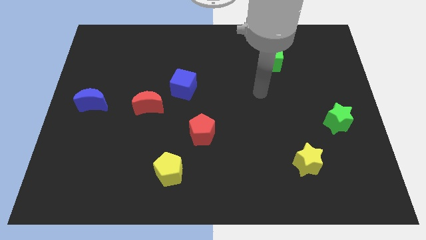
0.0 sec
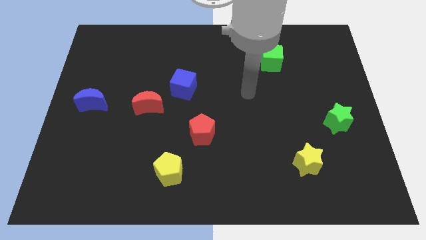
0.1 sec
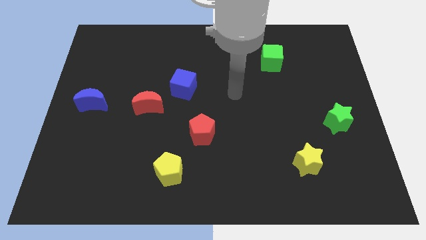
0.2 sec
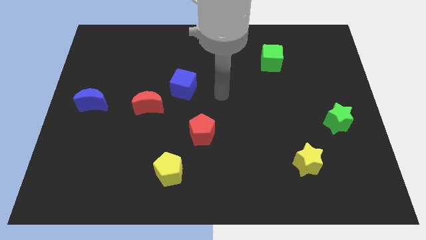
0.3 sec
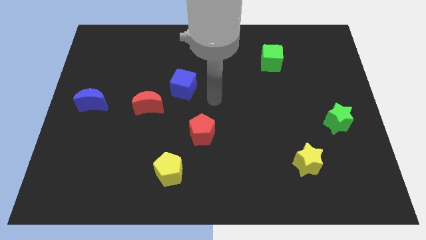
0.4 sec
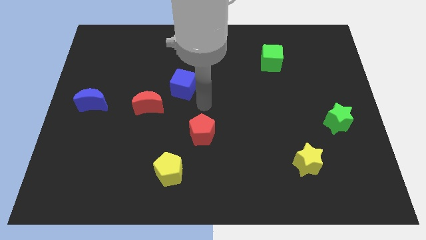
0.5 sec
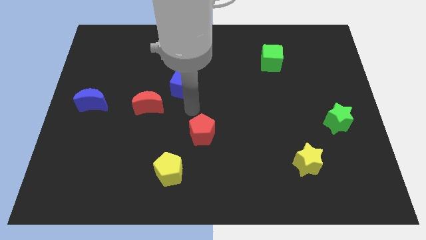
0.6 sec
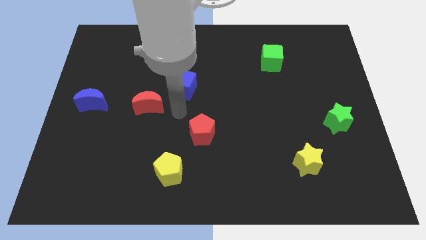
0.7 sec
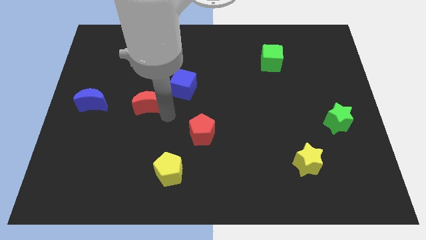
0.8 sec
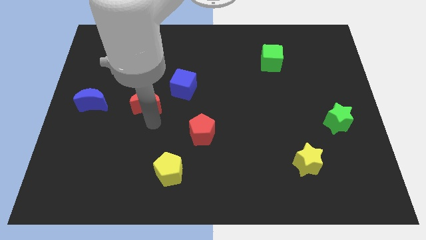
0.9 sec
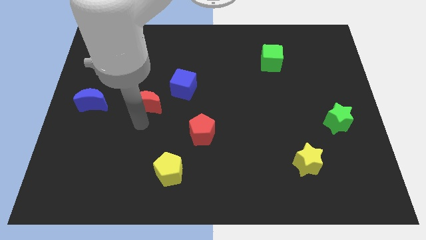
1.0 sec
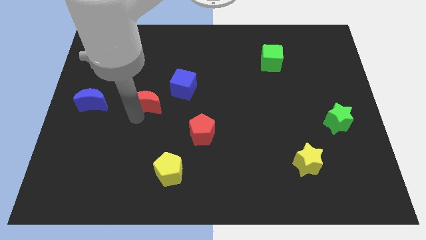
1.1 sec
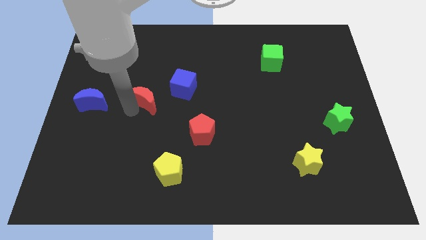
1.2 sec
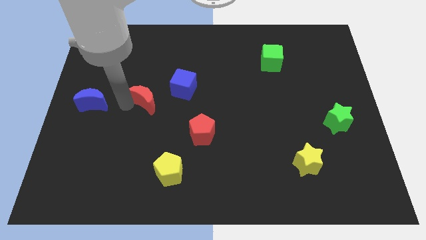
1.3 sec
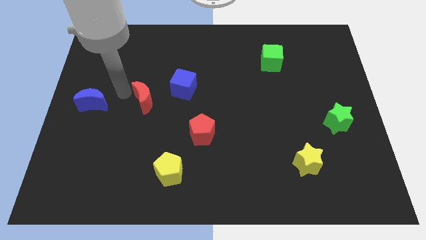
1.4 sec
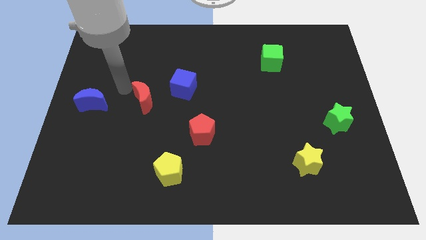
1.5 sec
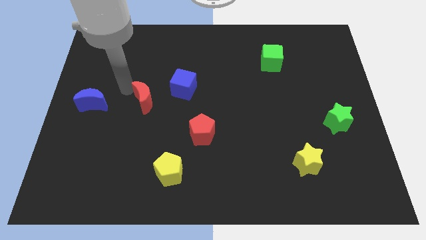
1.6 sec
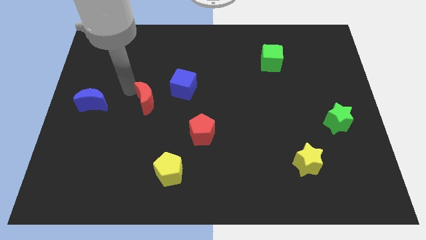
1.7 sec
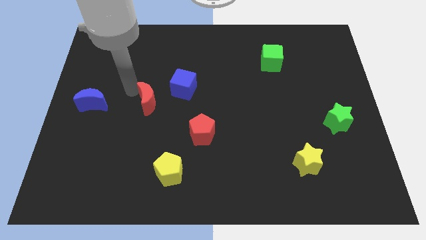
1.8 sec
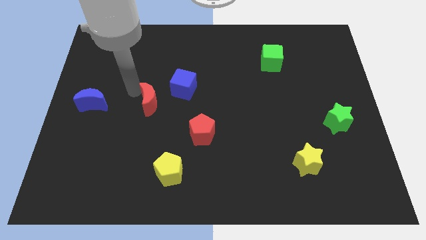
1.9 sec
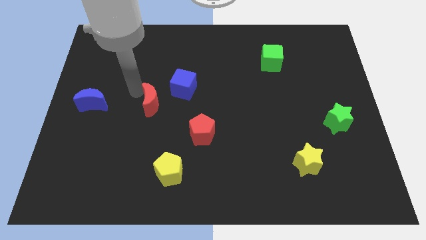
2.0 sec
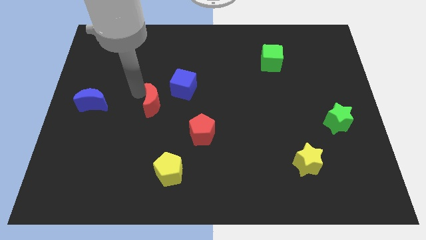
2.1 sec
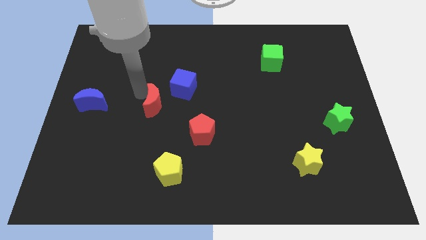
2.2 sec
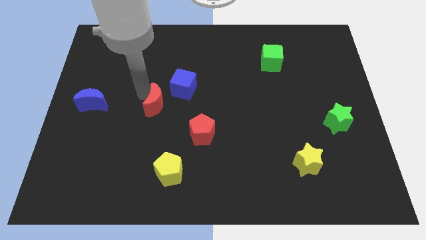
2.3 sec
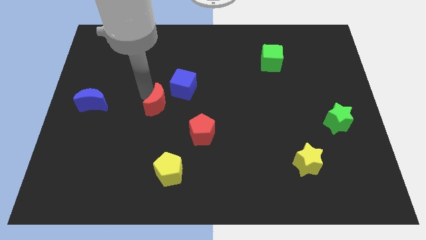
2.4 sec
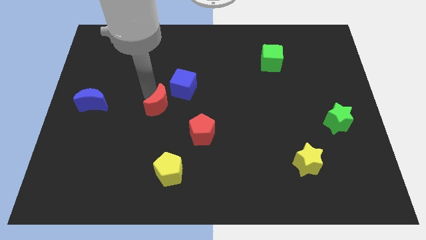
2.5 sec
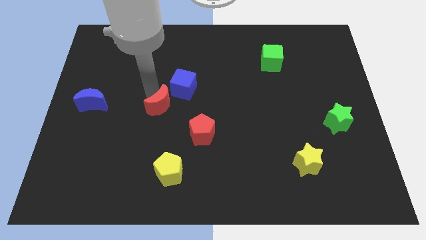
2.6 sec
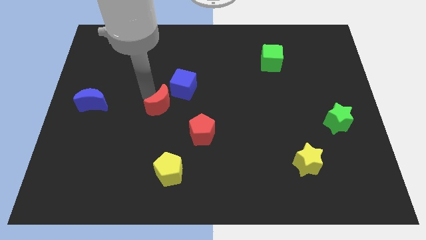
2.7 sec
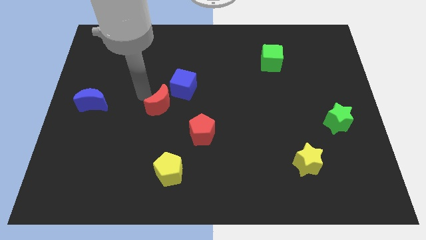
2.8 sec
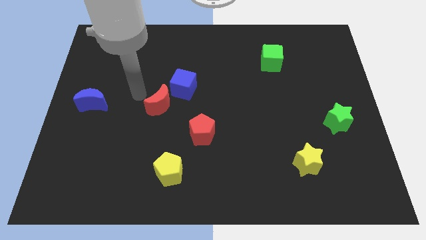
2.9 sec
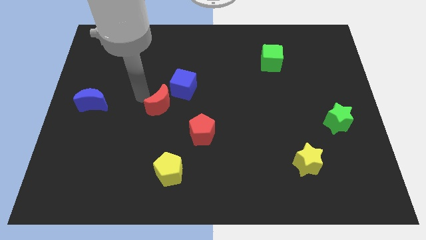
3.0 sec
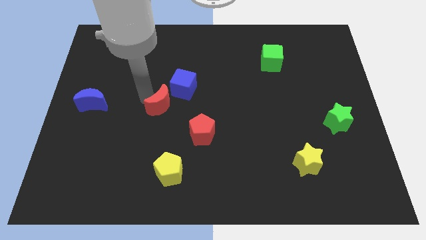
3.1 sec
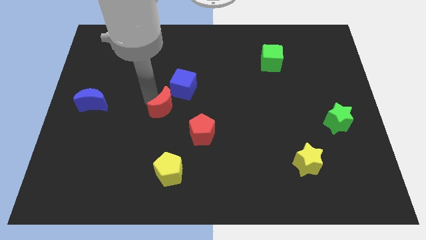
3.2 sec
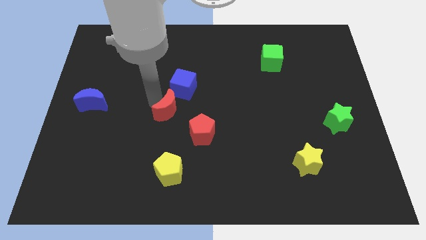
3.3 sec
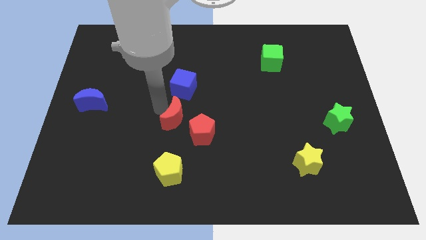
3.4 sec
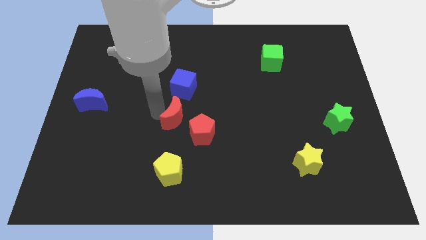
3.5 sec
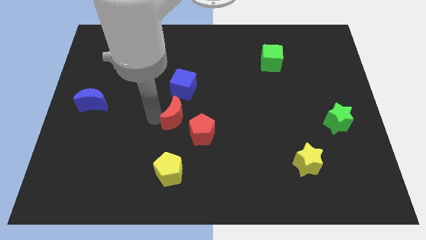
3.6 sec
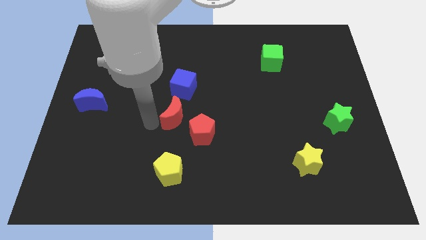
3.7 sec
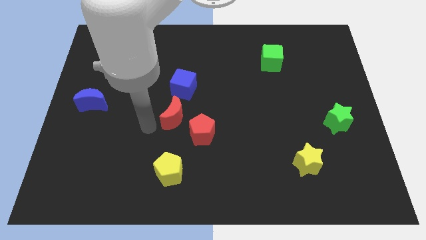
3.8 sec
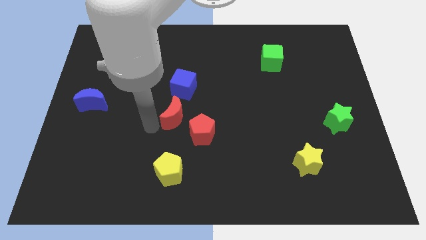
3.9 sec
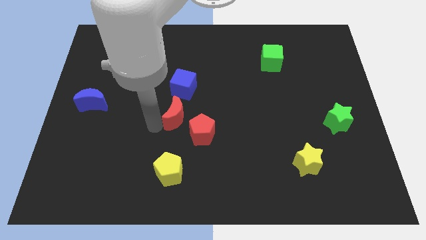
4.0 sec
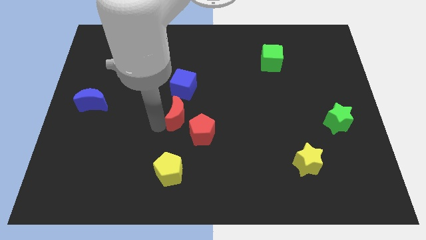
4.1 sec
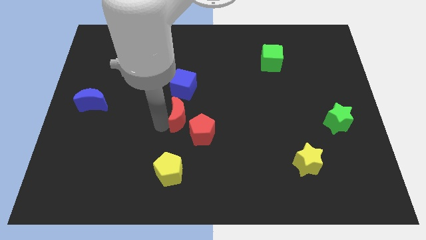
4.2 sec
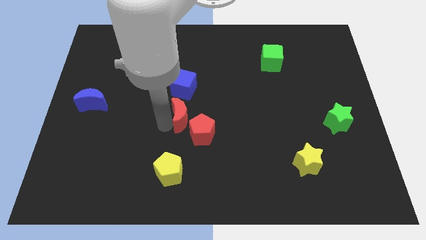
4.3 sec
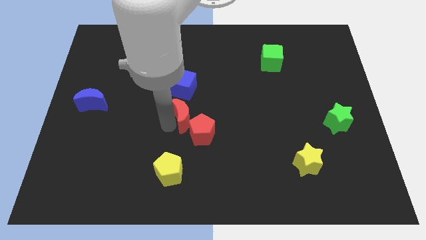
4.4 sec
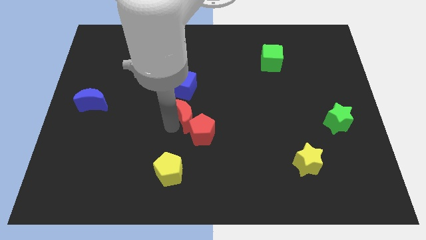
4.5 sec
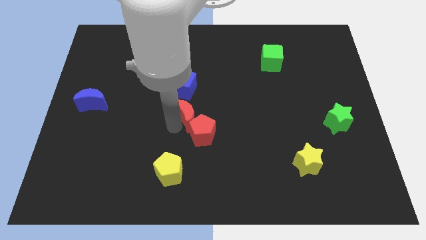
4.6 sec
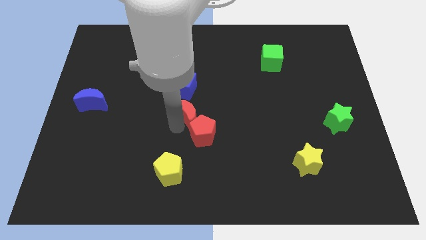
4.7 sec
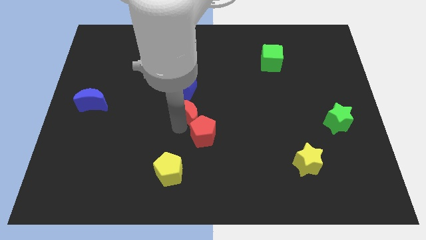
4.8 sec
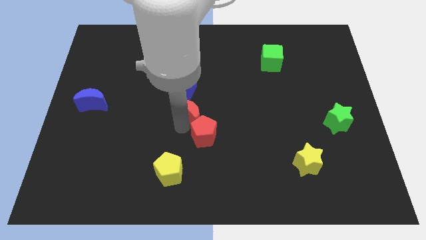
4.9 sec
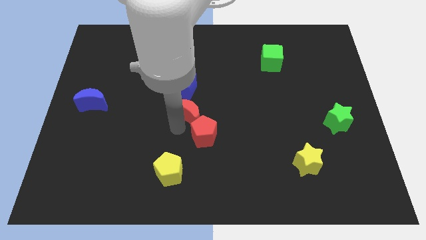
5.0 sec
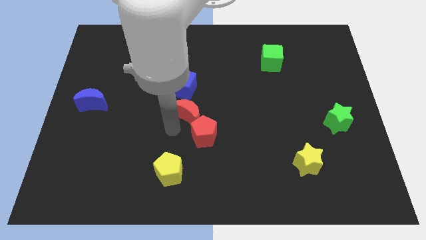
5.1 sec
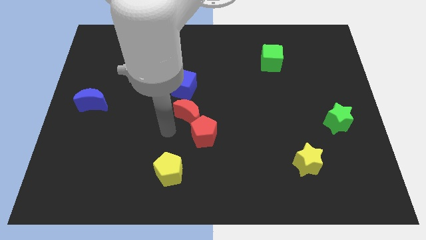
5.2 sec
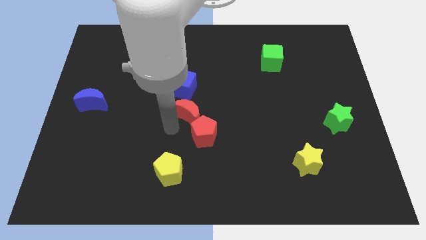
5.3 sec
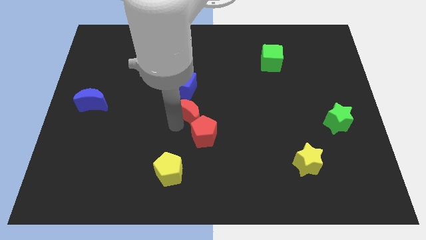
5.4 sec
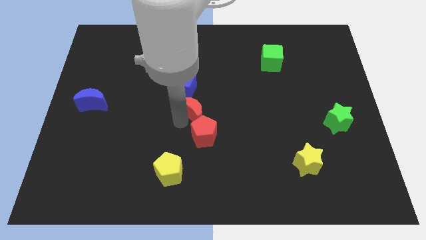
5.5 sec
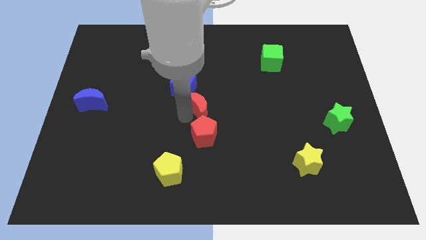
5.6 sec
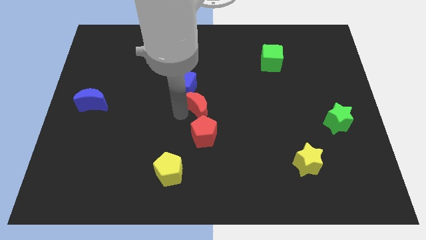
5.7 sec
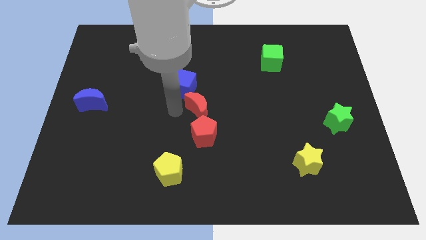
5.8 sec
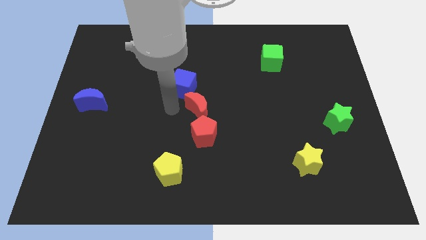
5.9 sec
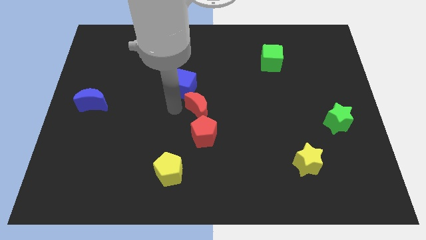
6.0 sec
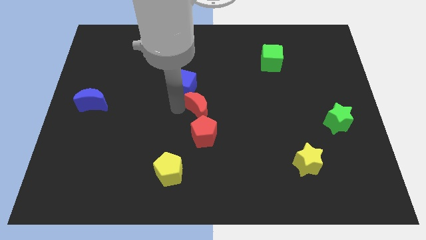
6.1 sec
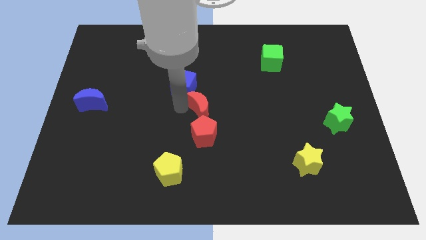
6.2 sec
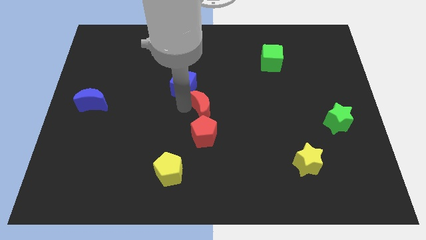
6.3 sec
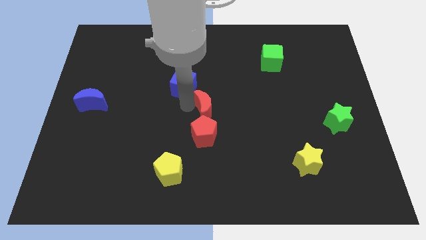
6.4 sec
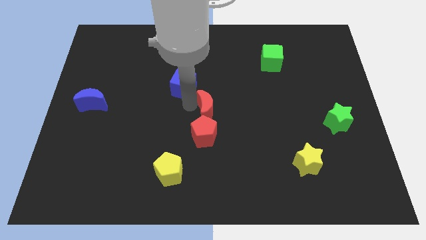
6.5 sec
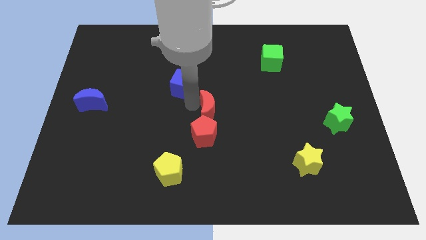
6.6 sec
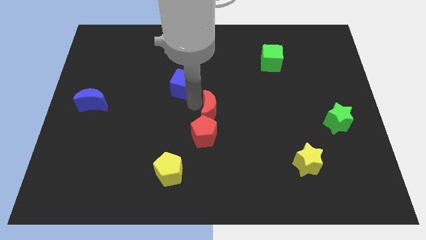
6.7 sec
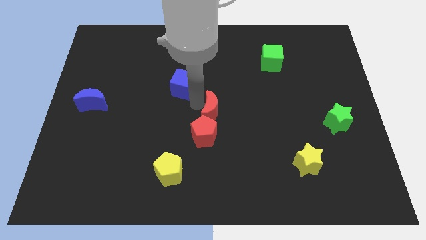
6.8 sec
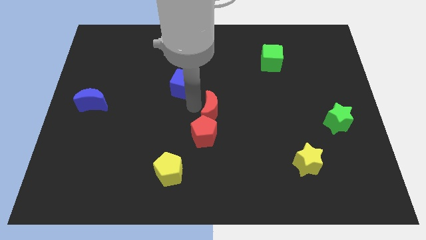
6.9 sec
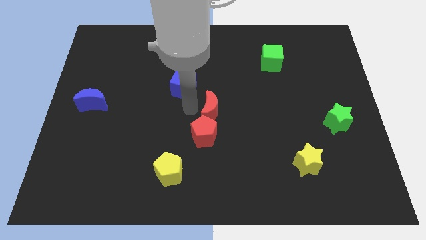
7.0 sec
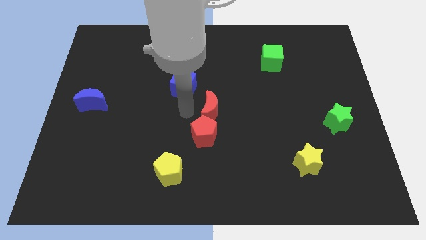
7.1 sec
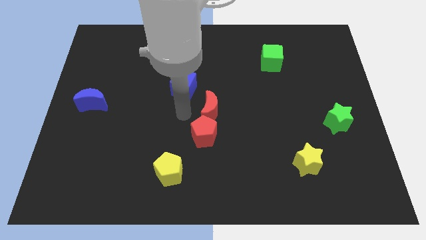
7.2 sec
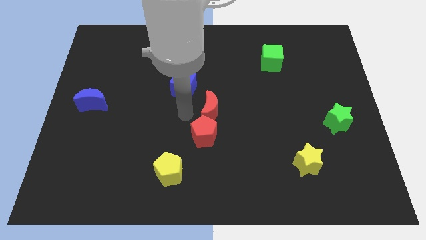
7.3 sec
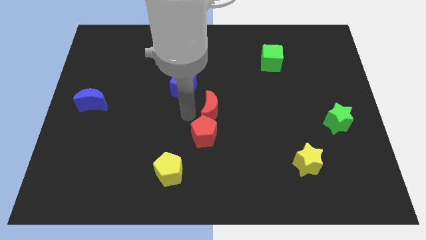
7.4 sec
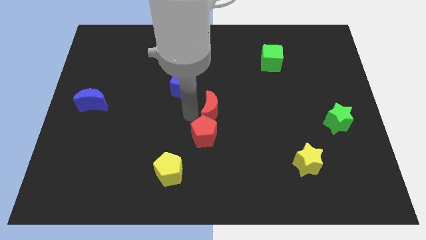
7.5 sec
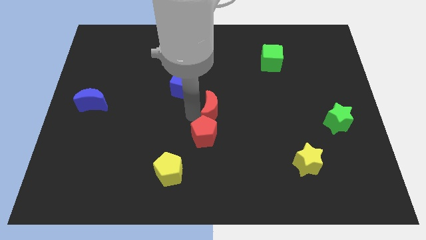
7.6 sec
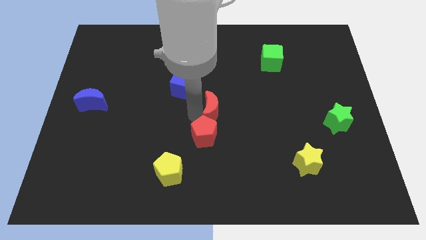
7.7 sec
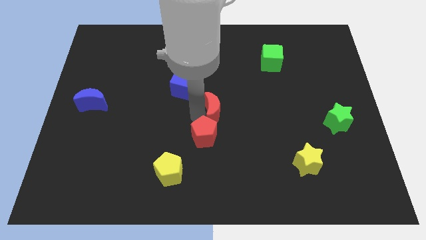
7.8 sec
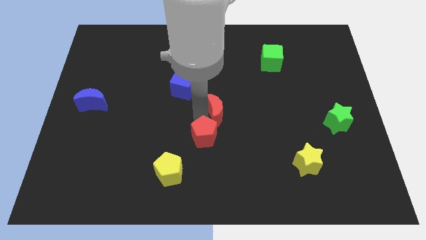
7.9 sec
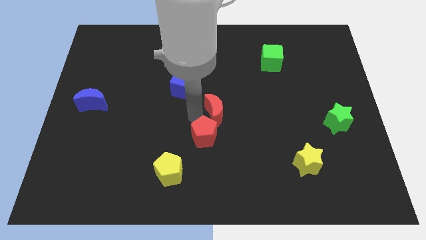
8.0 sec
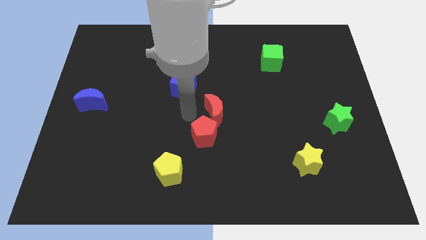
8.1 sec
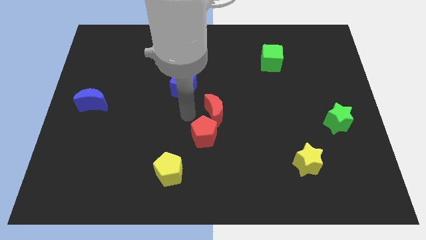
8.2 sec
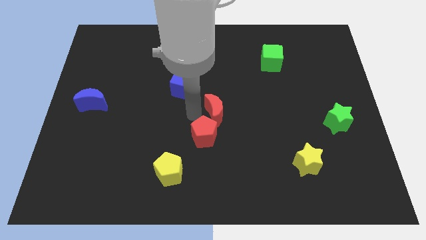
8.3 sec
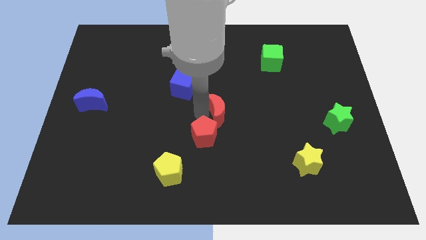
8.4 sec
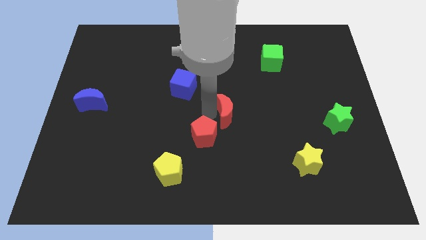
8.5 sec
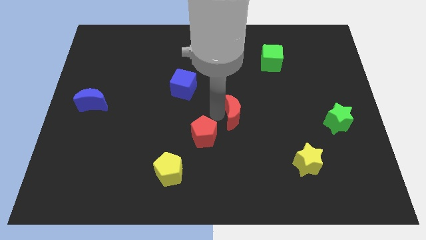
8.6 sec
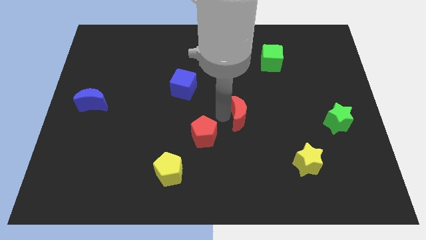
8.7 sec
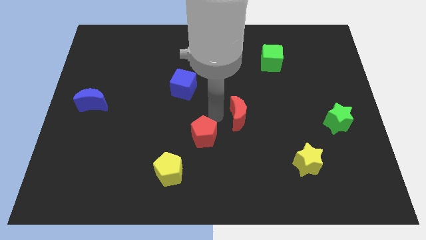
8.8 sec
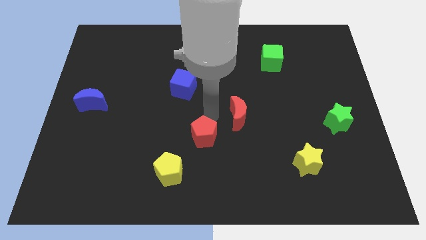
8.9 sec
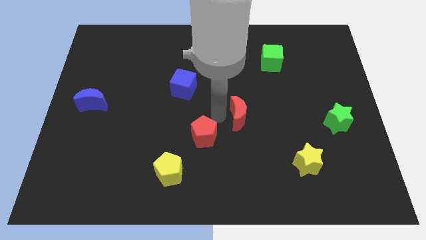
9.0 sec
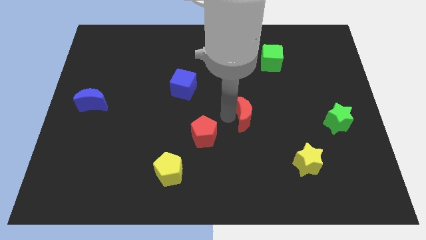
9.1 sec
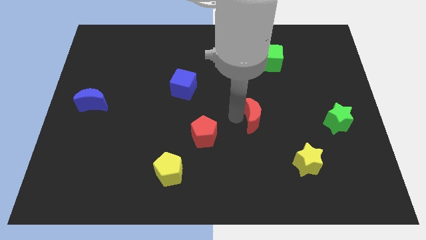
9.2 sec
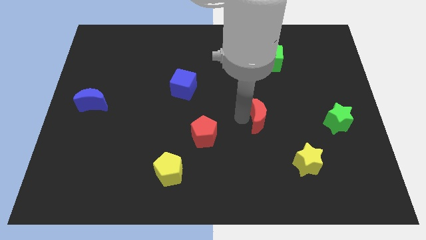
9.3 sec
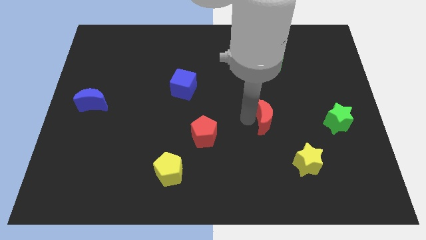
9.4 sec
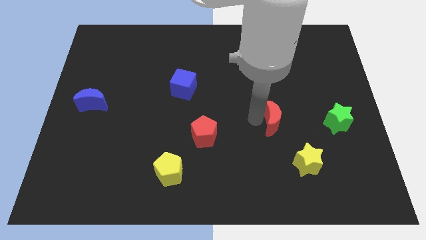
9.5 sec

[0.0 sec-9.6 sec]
move the red moon just left of the green star
